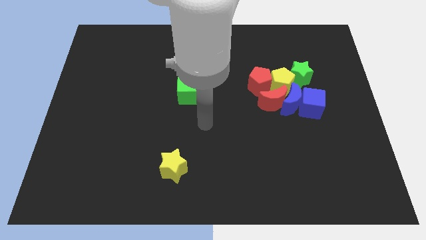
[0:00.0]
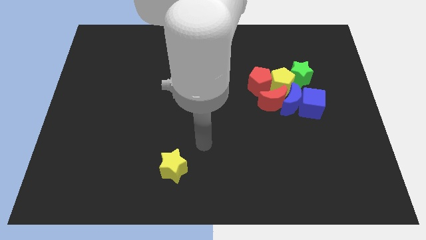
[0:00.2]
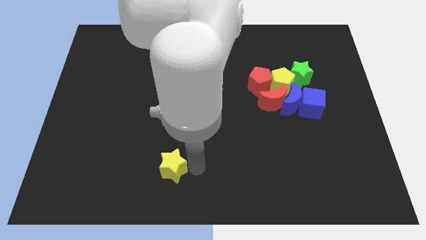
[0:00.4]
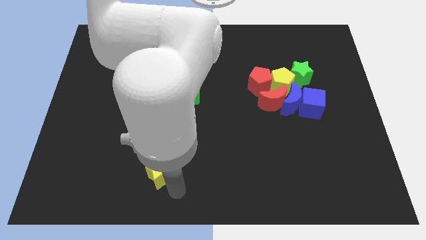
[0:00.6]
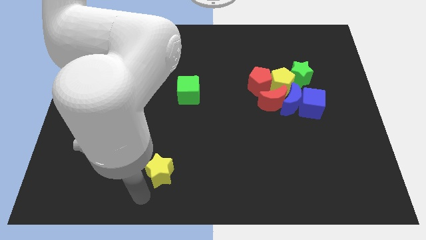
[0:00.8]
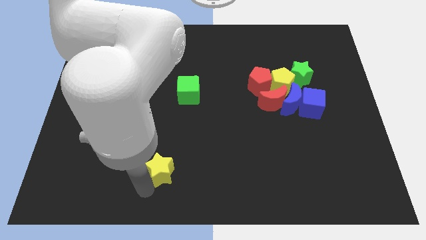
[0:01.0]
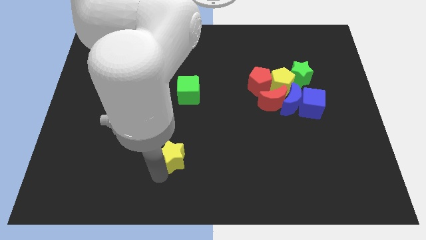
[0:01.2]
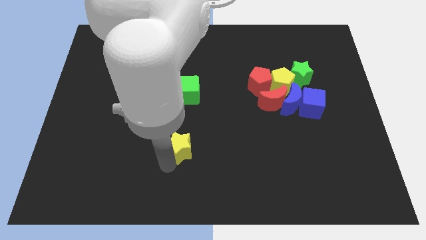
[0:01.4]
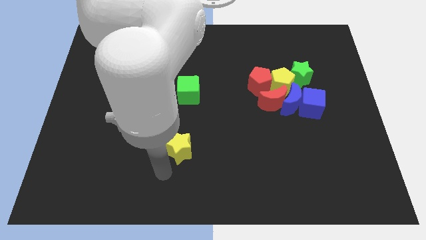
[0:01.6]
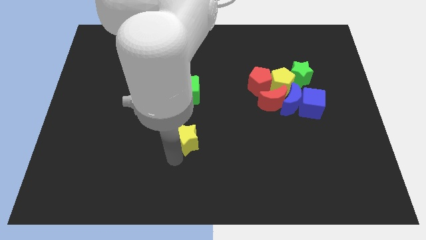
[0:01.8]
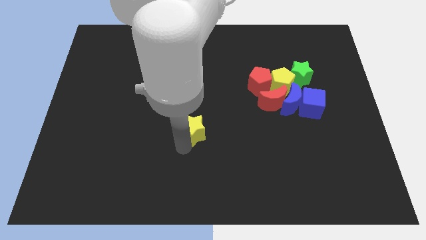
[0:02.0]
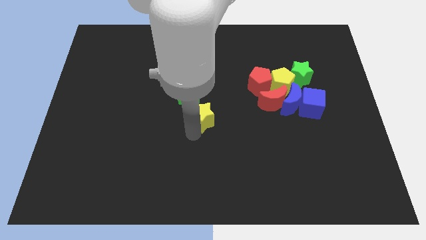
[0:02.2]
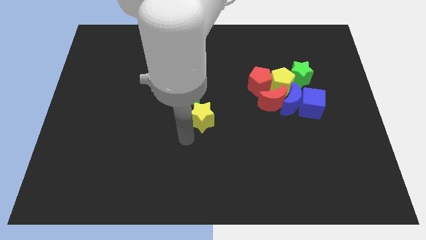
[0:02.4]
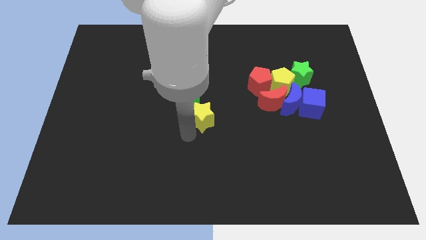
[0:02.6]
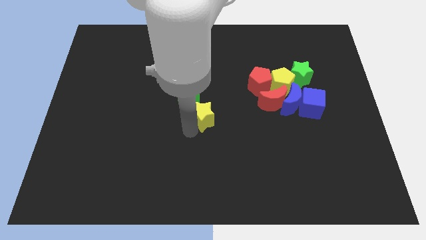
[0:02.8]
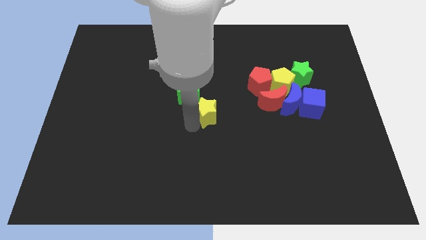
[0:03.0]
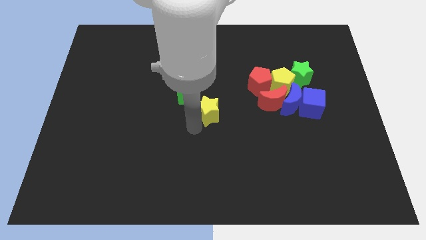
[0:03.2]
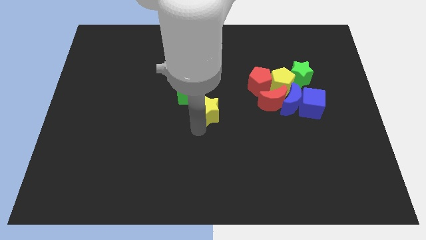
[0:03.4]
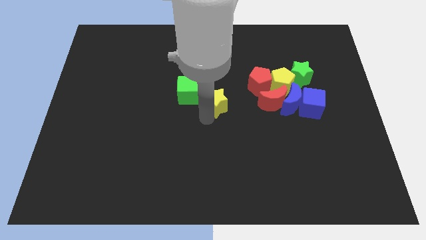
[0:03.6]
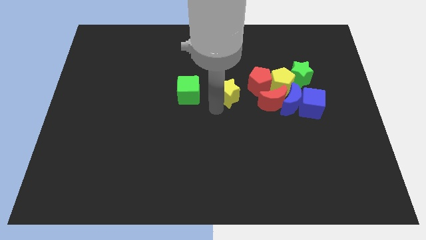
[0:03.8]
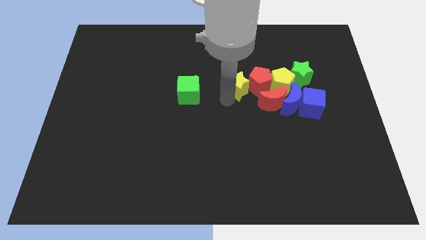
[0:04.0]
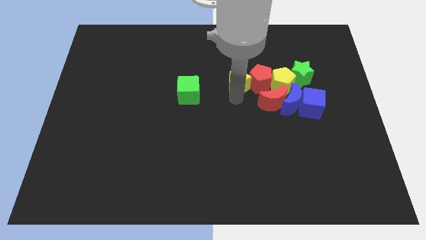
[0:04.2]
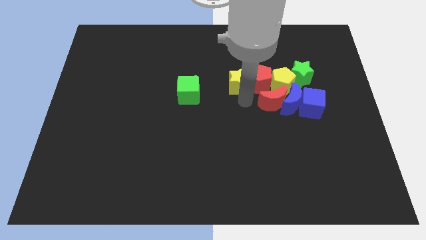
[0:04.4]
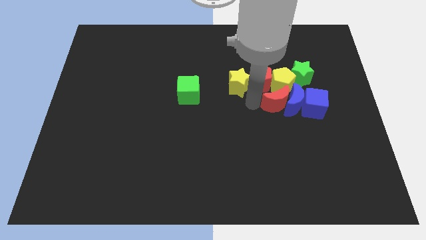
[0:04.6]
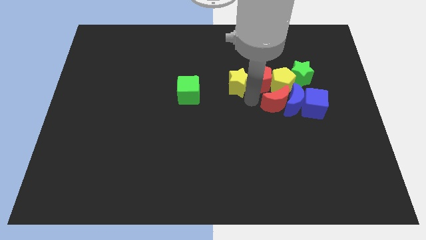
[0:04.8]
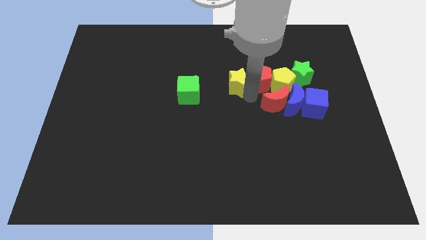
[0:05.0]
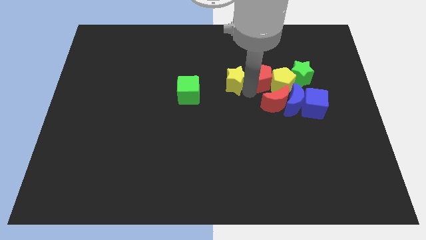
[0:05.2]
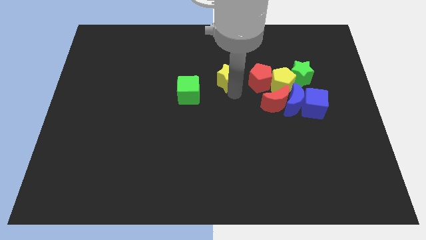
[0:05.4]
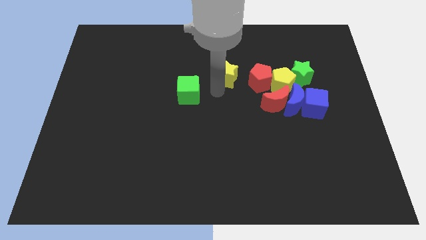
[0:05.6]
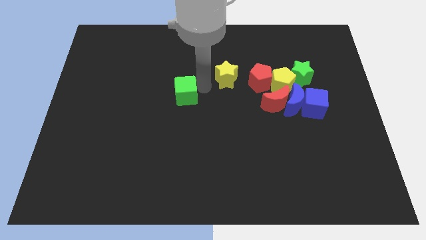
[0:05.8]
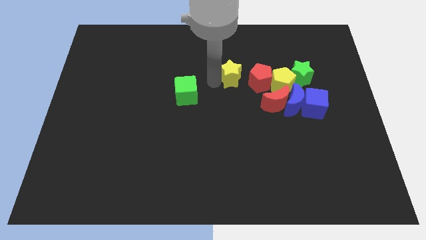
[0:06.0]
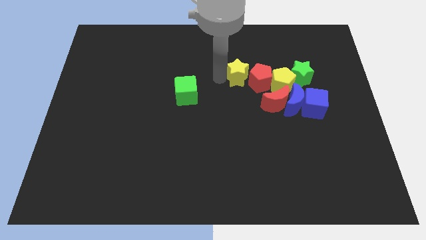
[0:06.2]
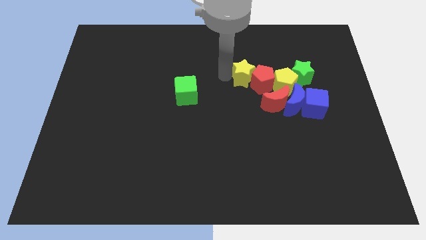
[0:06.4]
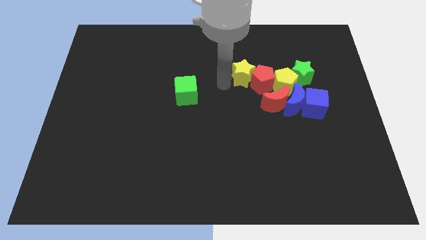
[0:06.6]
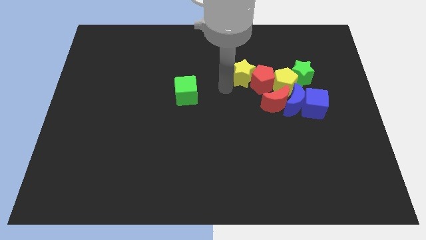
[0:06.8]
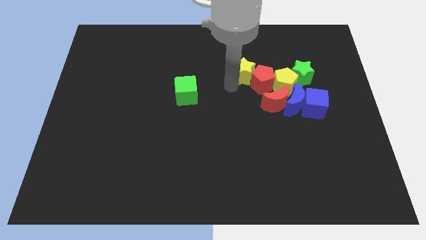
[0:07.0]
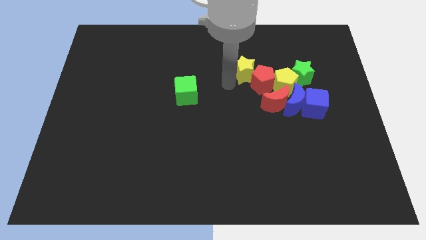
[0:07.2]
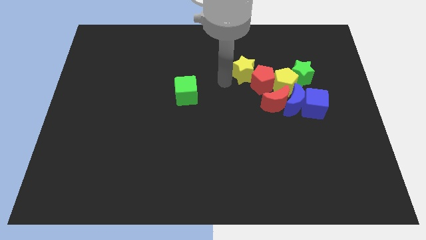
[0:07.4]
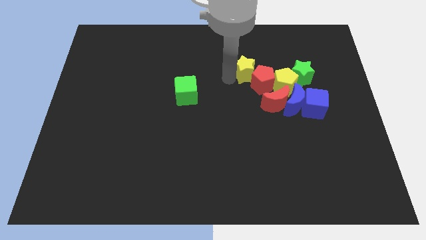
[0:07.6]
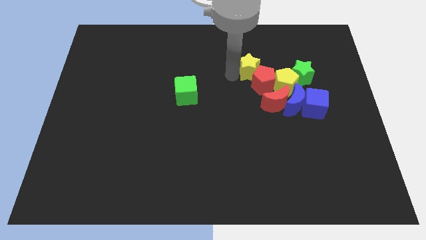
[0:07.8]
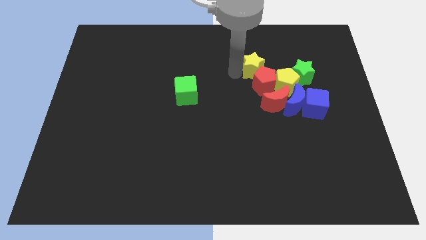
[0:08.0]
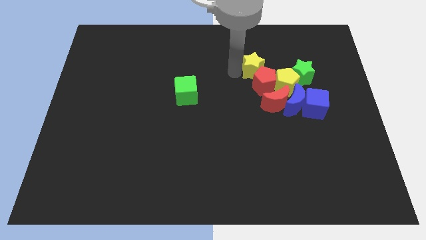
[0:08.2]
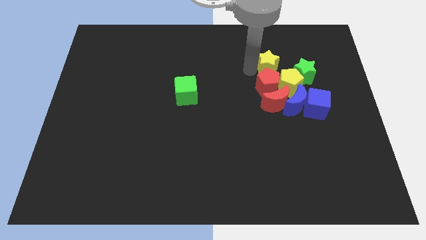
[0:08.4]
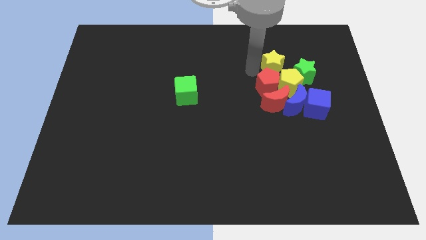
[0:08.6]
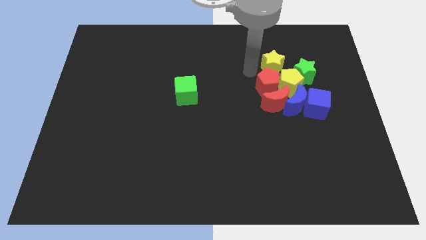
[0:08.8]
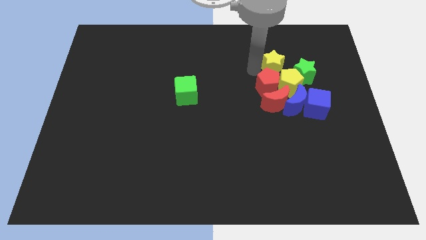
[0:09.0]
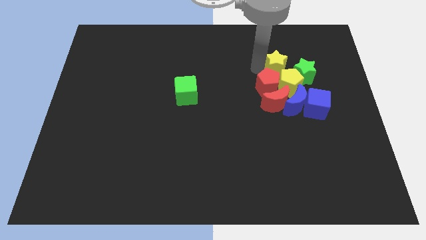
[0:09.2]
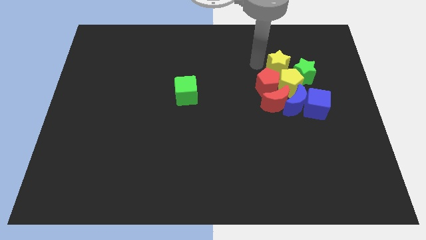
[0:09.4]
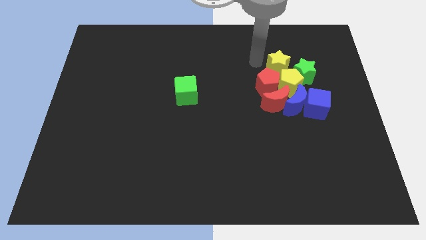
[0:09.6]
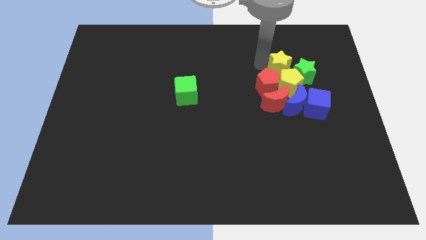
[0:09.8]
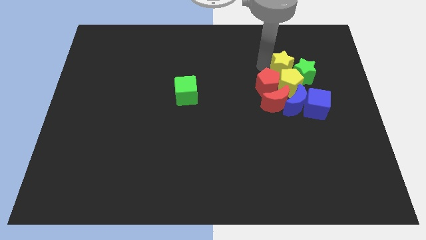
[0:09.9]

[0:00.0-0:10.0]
push the yellow star close to the green star

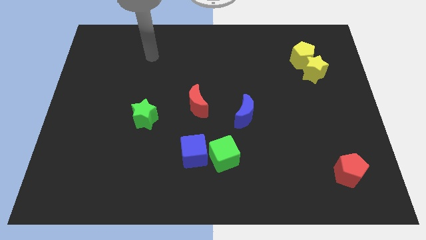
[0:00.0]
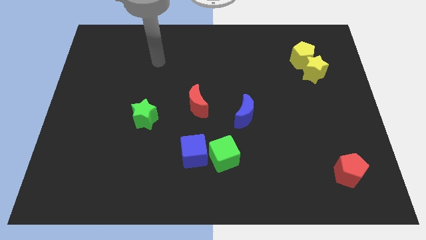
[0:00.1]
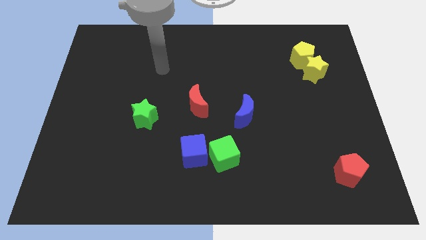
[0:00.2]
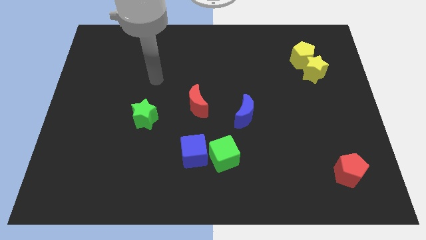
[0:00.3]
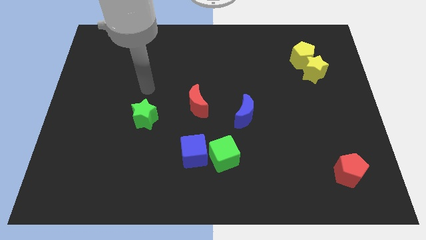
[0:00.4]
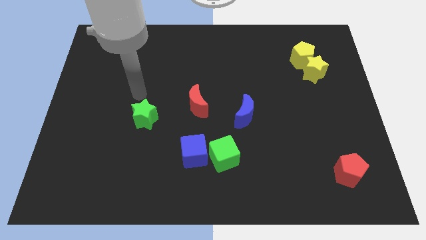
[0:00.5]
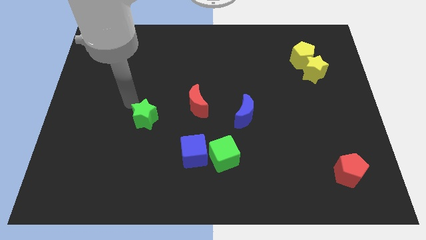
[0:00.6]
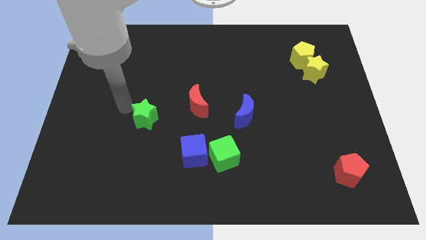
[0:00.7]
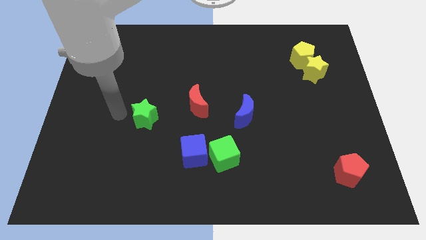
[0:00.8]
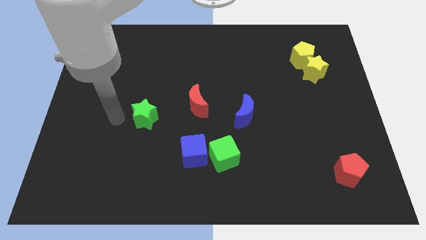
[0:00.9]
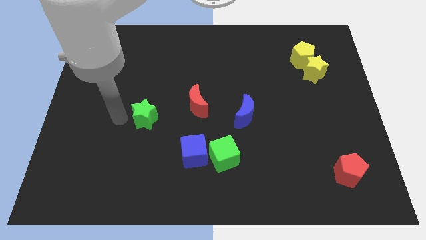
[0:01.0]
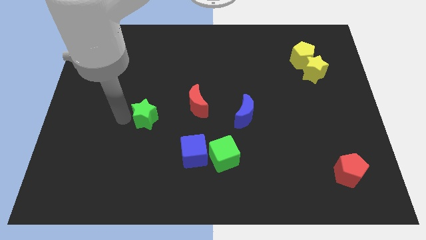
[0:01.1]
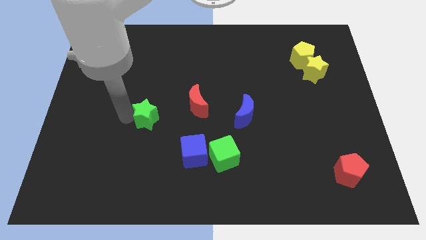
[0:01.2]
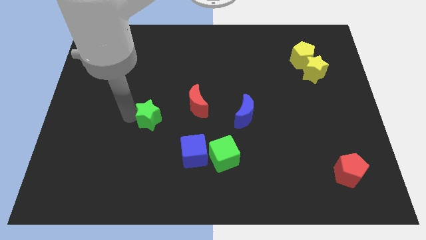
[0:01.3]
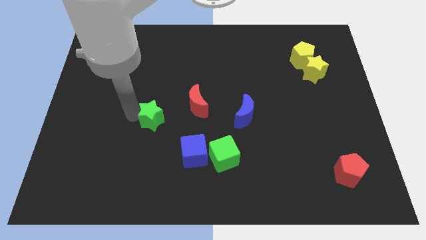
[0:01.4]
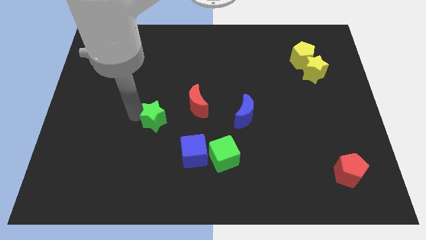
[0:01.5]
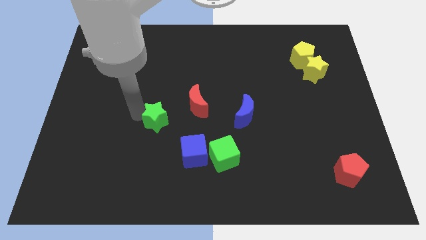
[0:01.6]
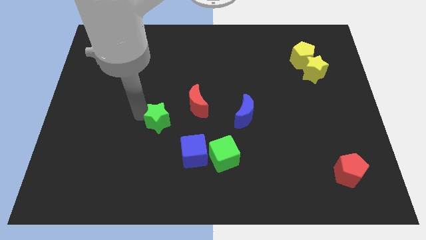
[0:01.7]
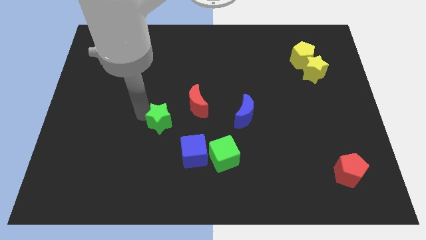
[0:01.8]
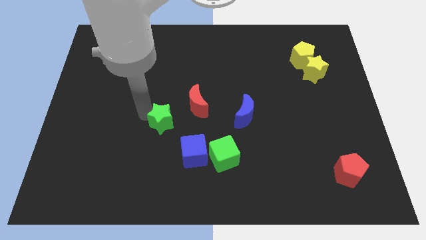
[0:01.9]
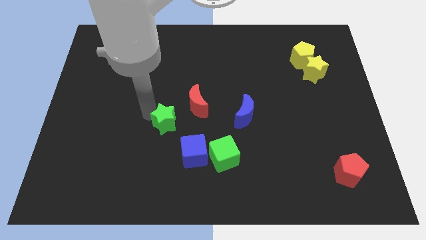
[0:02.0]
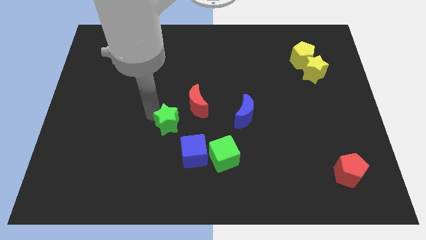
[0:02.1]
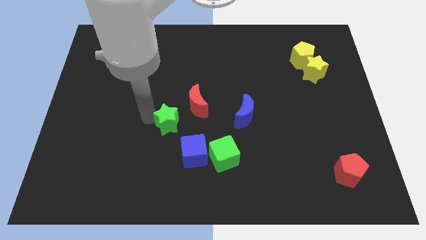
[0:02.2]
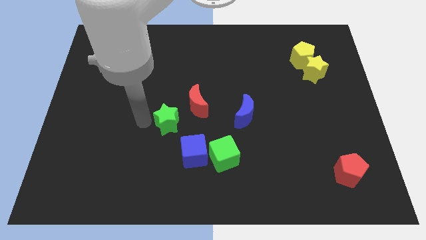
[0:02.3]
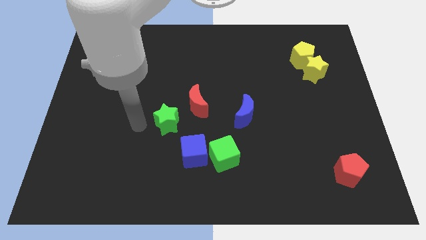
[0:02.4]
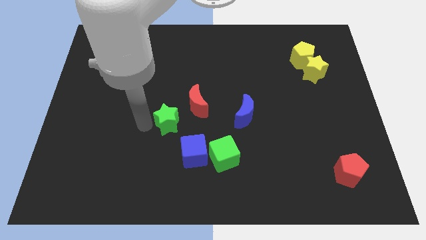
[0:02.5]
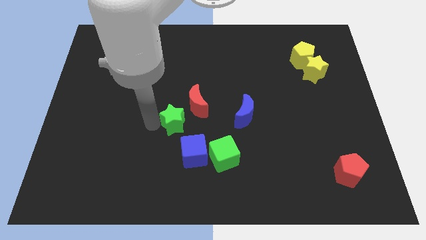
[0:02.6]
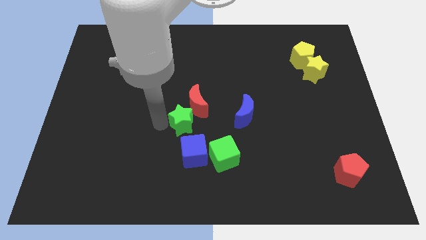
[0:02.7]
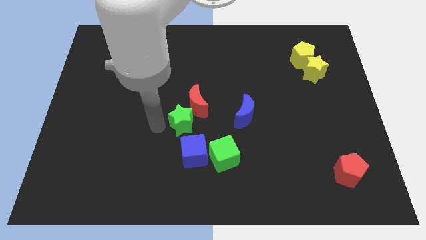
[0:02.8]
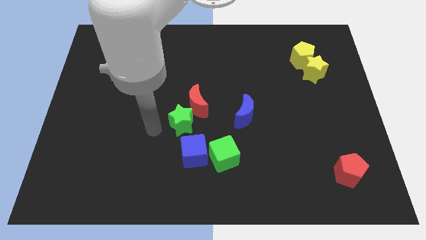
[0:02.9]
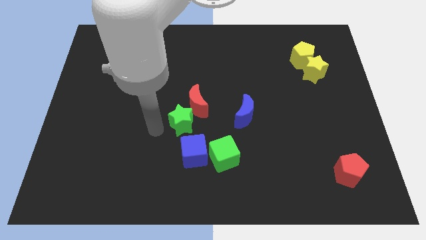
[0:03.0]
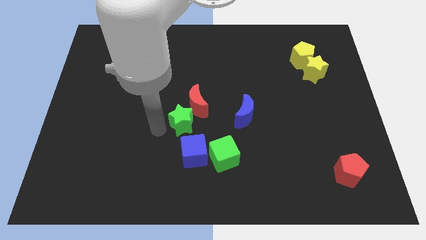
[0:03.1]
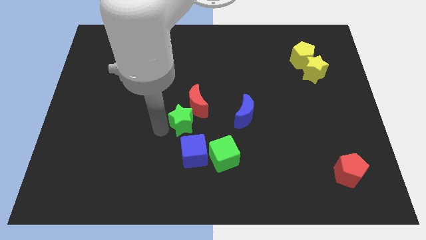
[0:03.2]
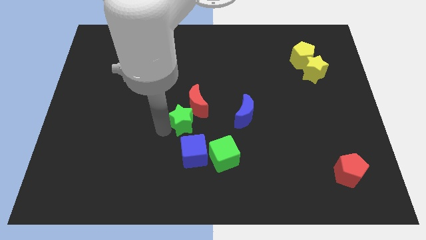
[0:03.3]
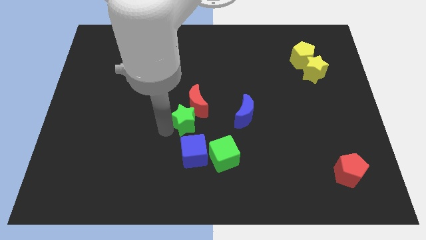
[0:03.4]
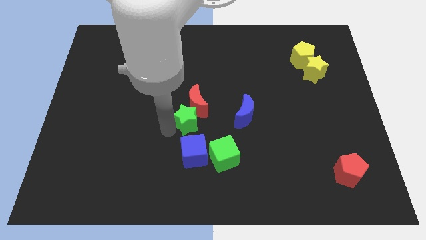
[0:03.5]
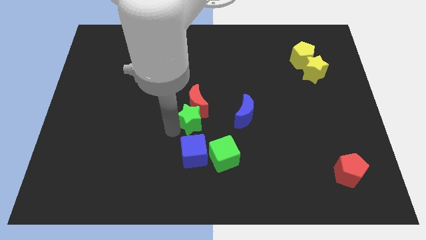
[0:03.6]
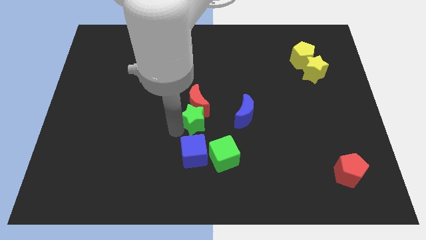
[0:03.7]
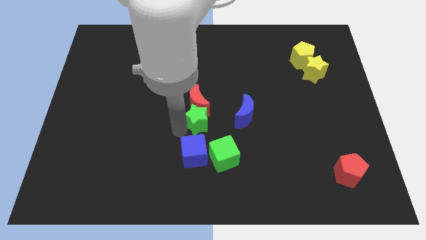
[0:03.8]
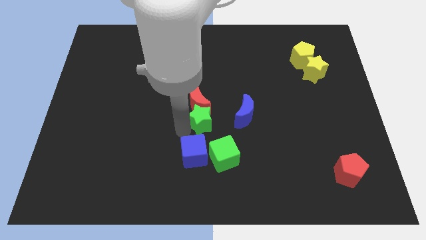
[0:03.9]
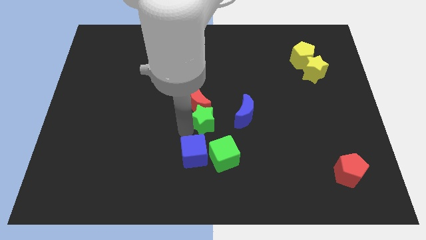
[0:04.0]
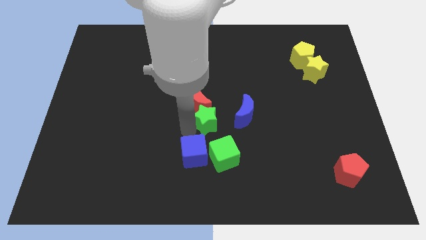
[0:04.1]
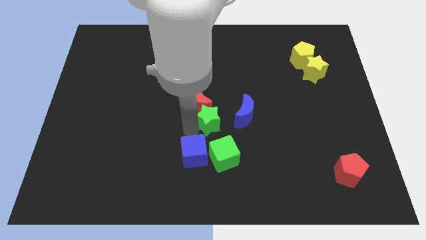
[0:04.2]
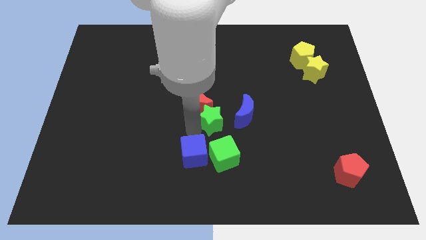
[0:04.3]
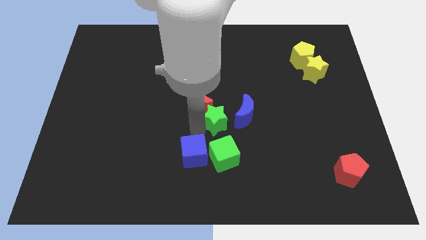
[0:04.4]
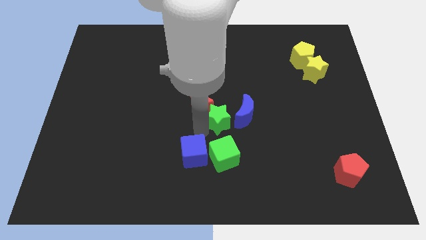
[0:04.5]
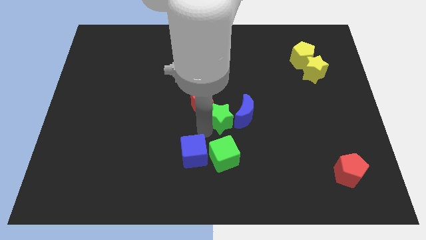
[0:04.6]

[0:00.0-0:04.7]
put the green star close to the blue moon
